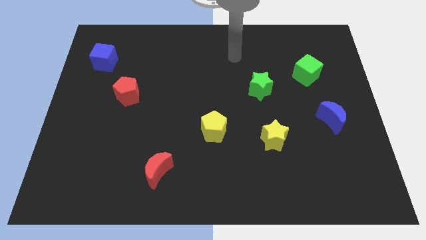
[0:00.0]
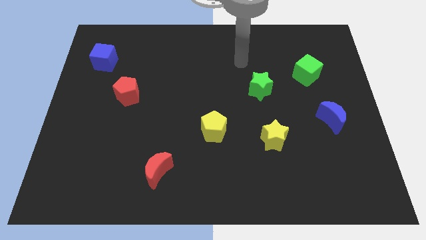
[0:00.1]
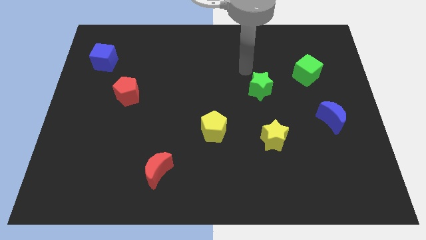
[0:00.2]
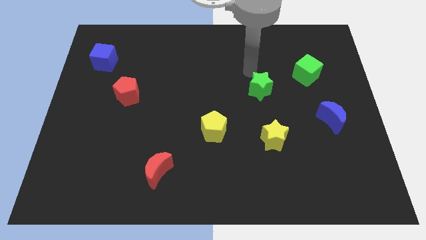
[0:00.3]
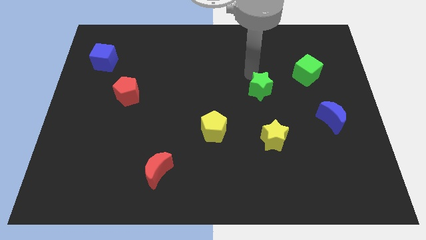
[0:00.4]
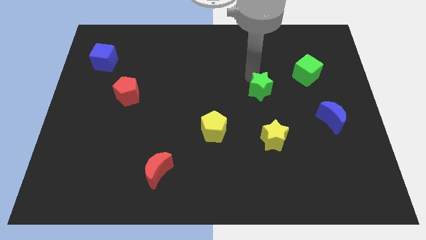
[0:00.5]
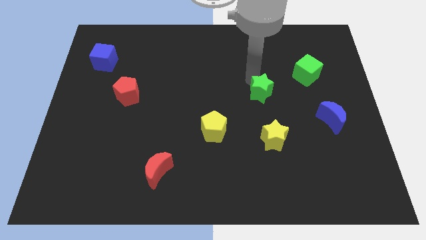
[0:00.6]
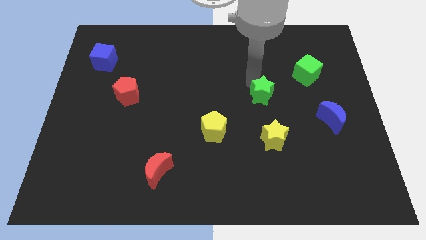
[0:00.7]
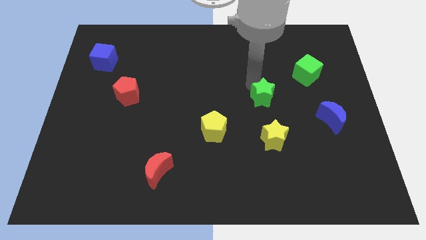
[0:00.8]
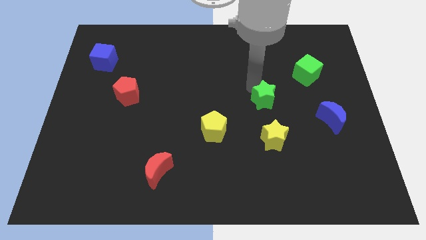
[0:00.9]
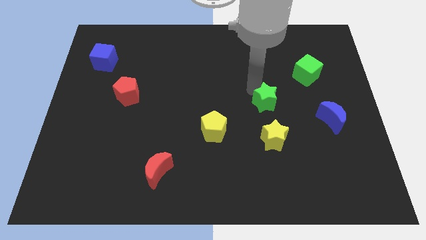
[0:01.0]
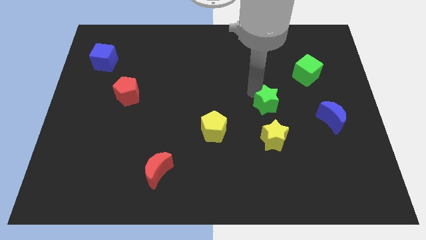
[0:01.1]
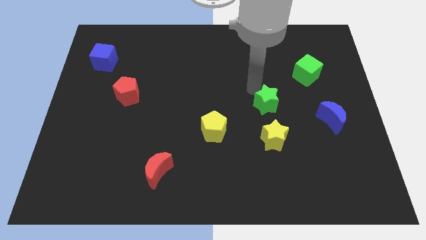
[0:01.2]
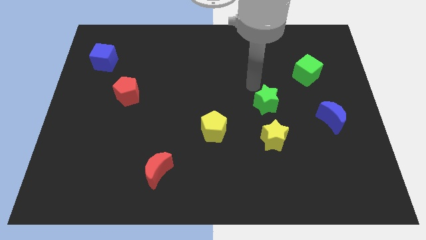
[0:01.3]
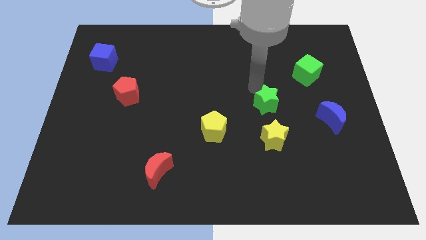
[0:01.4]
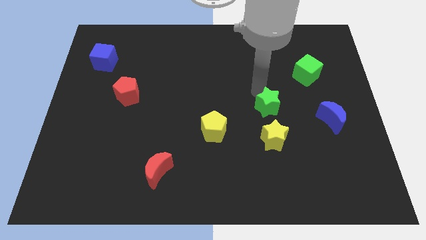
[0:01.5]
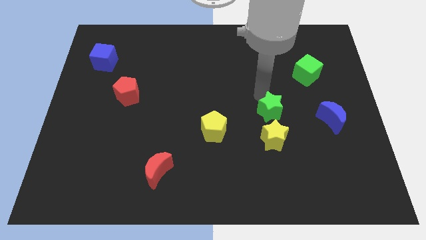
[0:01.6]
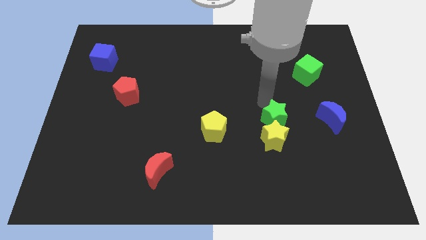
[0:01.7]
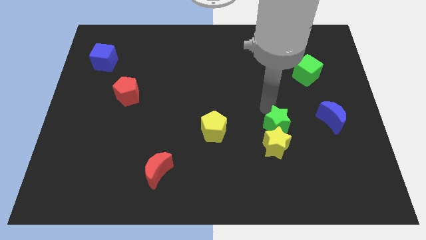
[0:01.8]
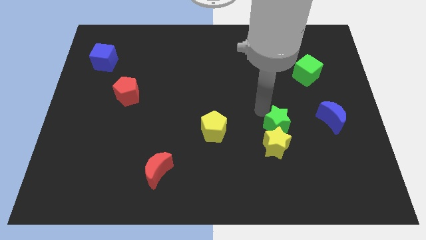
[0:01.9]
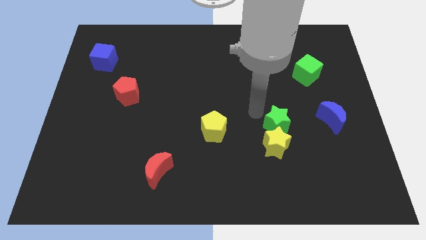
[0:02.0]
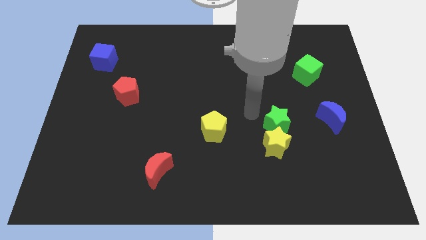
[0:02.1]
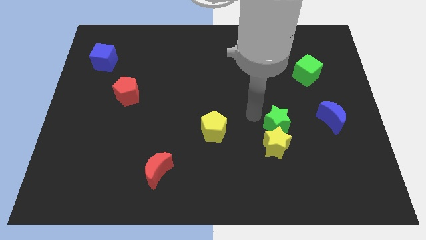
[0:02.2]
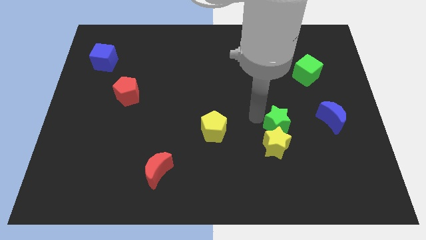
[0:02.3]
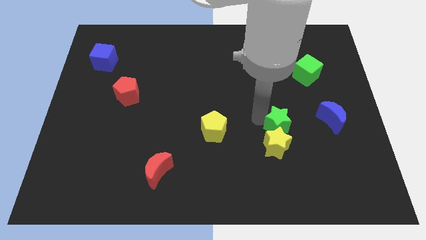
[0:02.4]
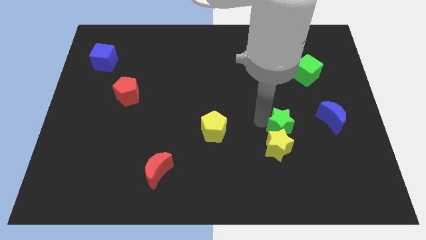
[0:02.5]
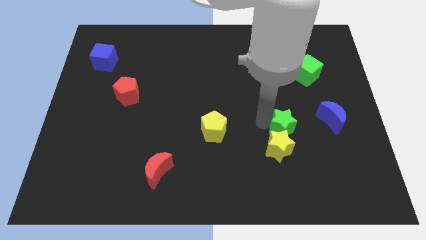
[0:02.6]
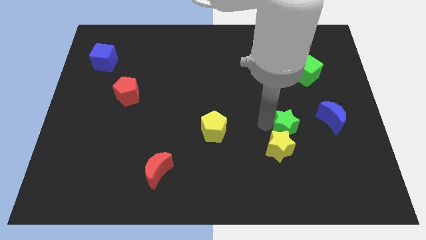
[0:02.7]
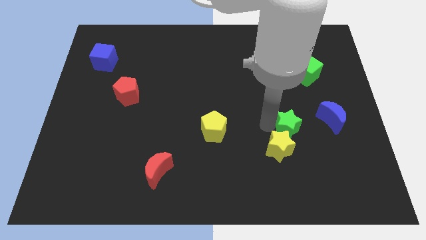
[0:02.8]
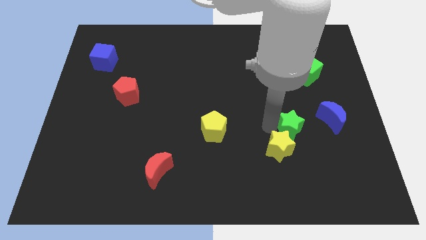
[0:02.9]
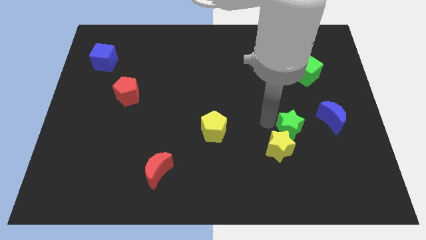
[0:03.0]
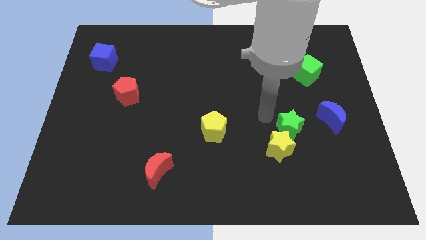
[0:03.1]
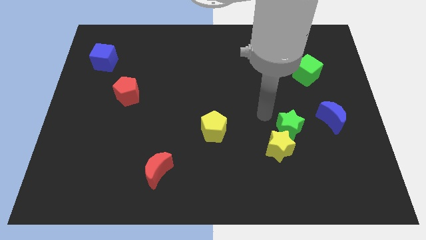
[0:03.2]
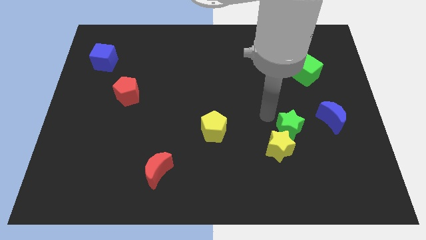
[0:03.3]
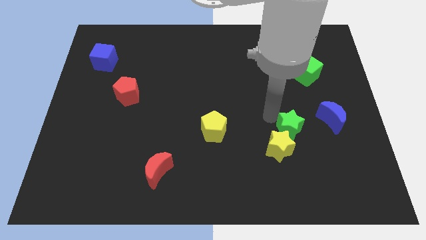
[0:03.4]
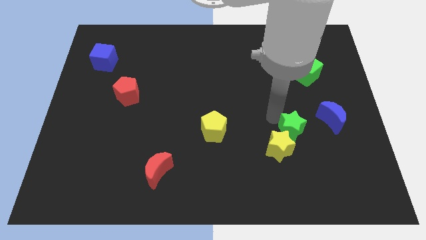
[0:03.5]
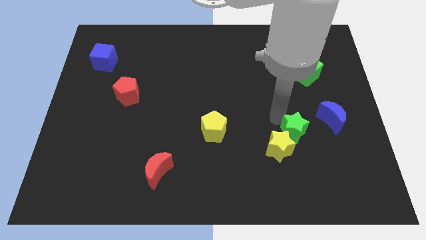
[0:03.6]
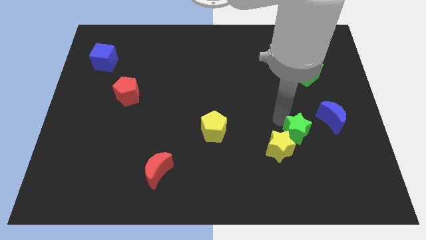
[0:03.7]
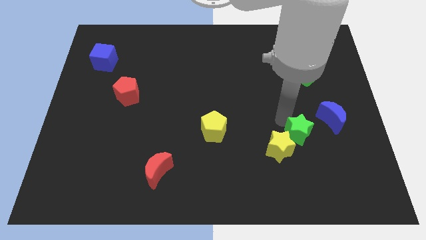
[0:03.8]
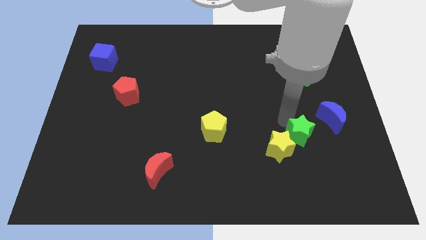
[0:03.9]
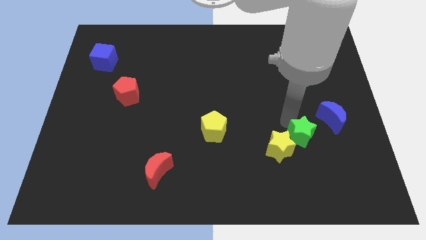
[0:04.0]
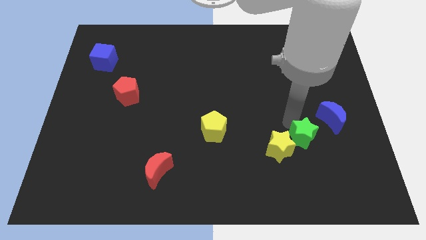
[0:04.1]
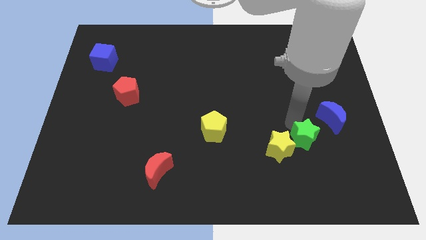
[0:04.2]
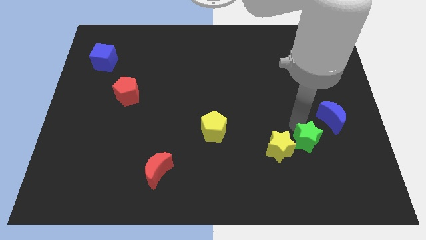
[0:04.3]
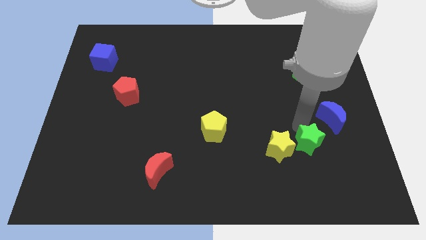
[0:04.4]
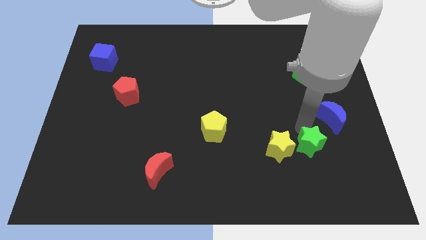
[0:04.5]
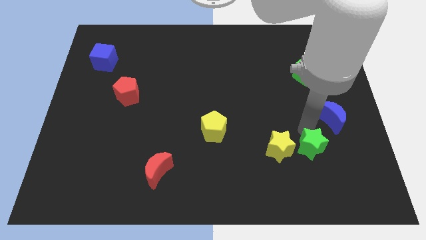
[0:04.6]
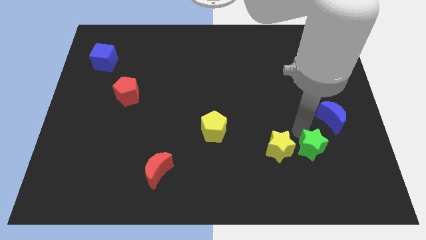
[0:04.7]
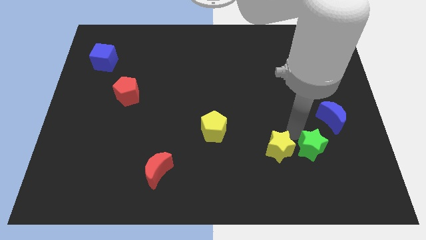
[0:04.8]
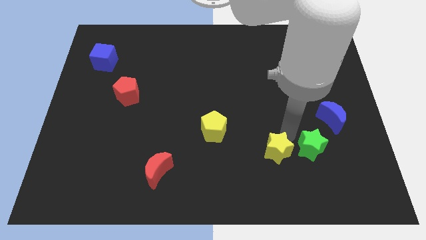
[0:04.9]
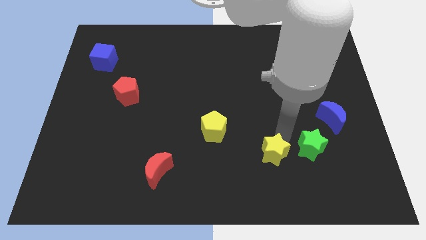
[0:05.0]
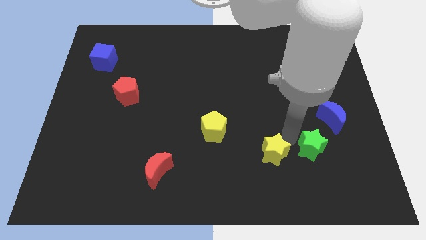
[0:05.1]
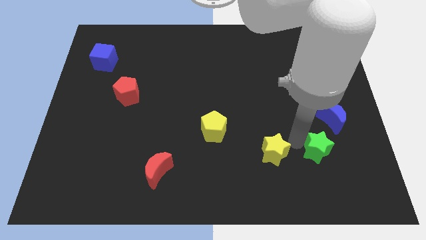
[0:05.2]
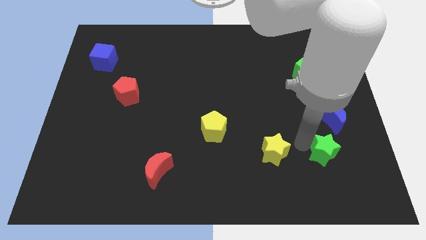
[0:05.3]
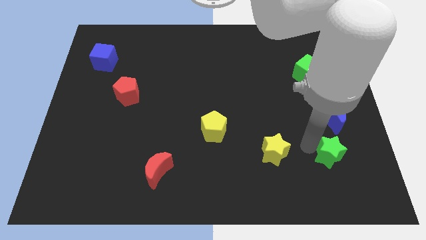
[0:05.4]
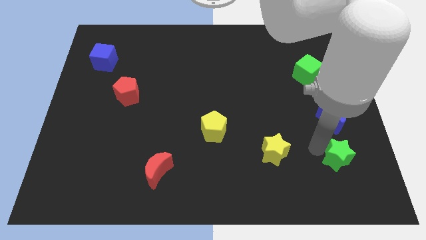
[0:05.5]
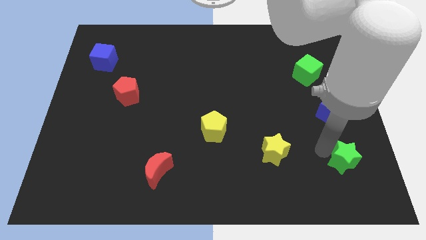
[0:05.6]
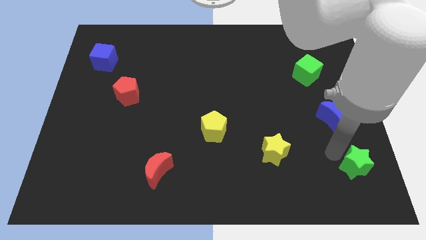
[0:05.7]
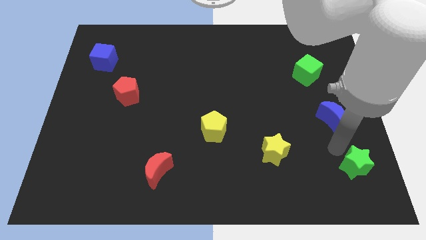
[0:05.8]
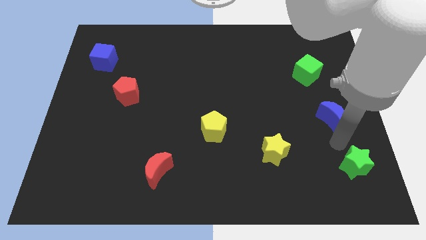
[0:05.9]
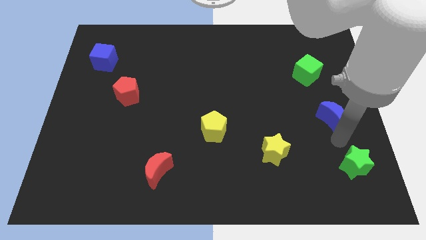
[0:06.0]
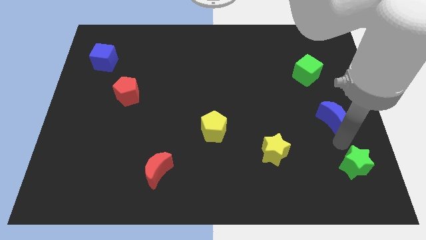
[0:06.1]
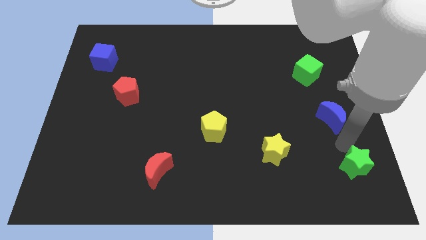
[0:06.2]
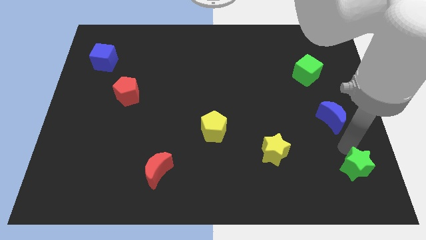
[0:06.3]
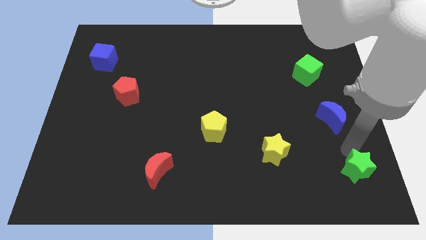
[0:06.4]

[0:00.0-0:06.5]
move the green star to the bottom right of the board

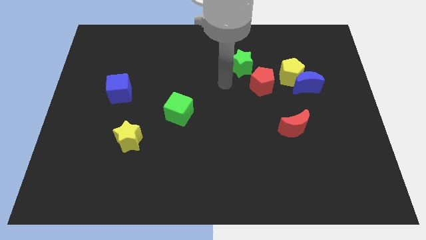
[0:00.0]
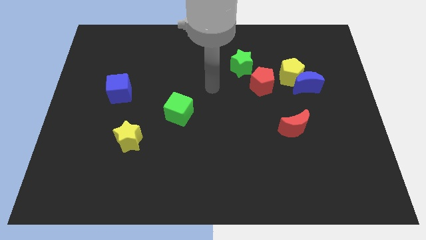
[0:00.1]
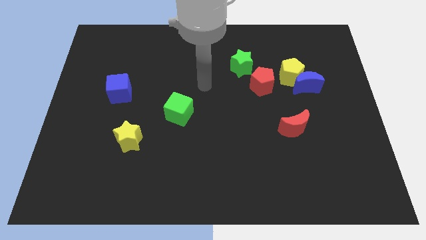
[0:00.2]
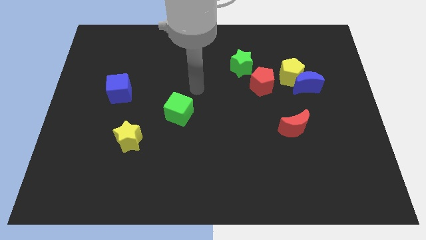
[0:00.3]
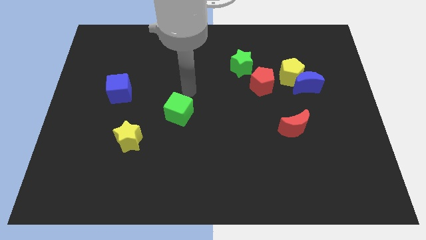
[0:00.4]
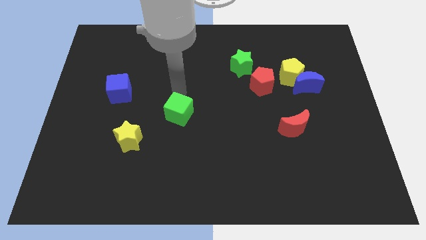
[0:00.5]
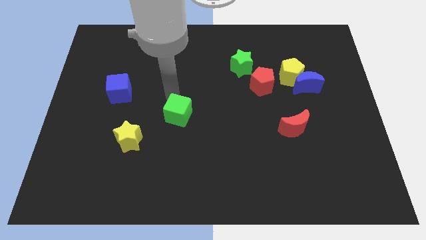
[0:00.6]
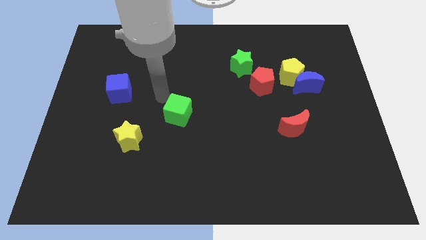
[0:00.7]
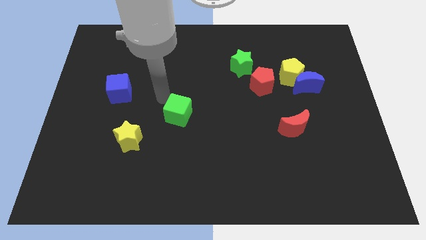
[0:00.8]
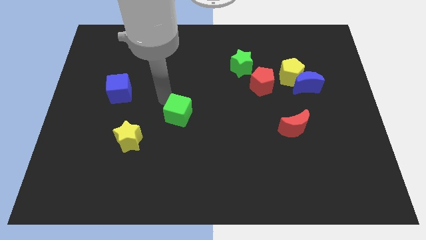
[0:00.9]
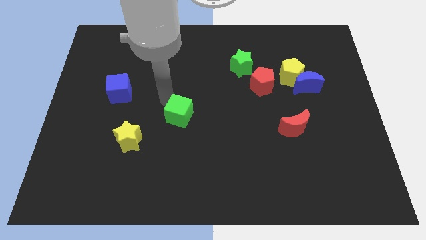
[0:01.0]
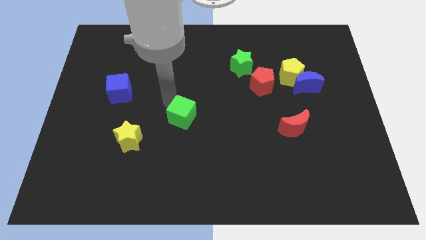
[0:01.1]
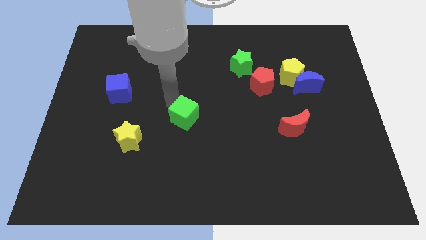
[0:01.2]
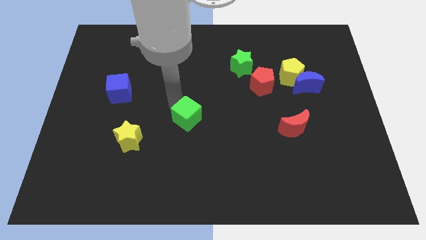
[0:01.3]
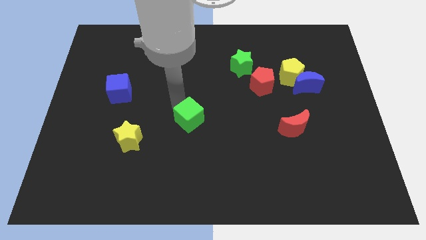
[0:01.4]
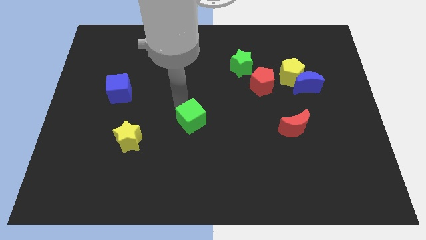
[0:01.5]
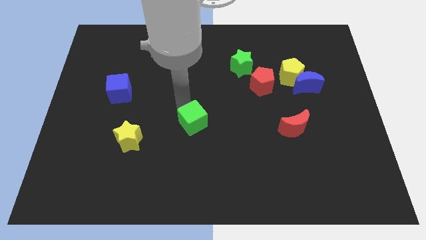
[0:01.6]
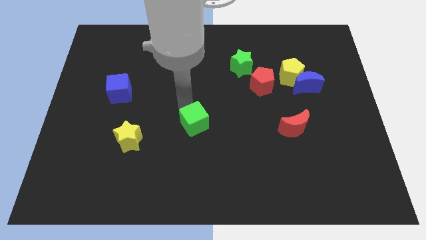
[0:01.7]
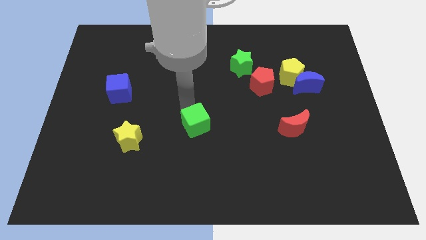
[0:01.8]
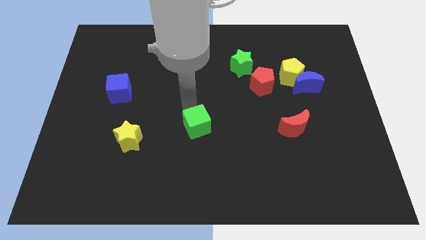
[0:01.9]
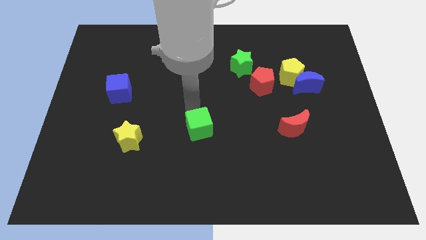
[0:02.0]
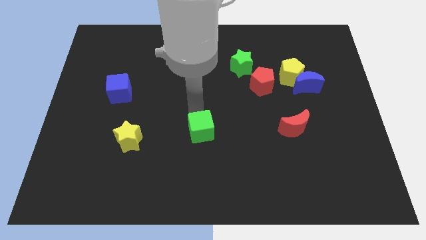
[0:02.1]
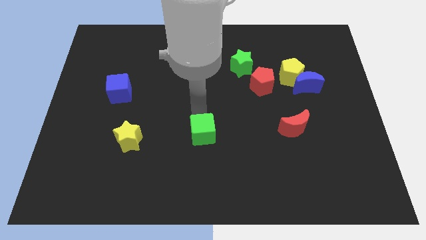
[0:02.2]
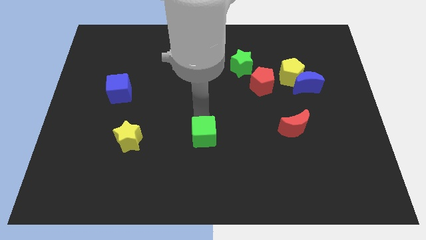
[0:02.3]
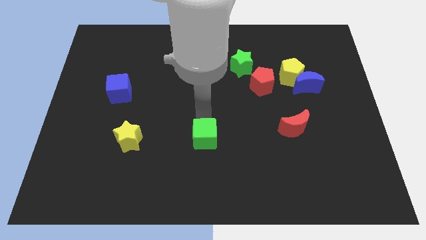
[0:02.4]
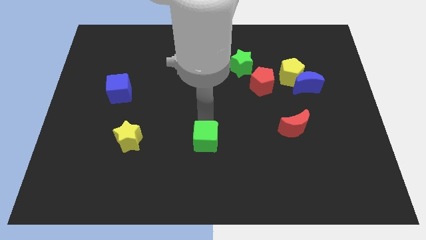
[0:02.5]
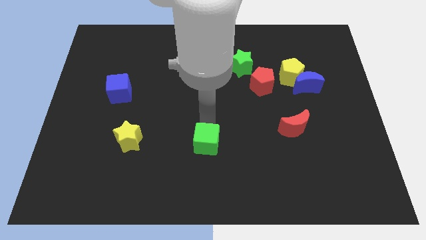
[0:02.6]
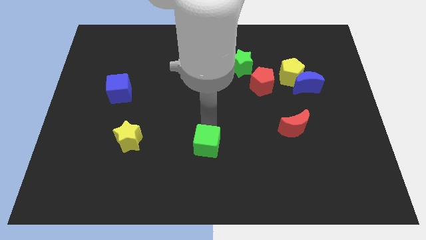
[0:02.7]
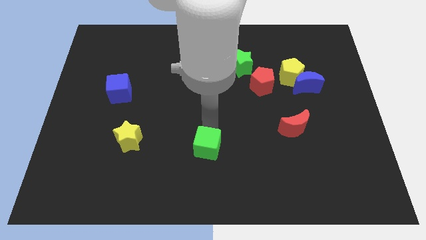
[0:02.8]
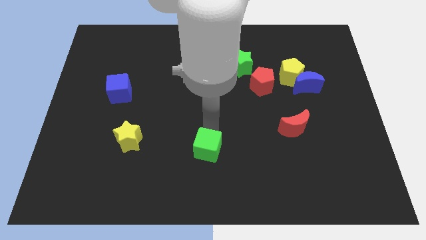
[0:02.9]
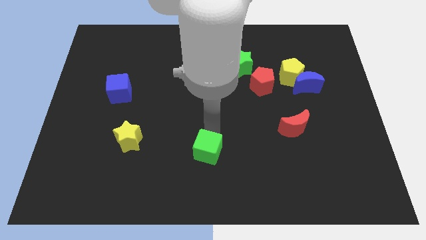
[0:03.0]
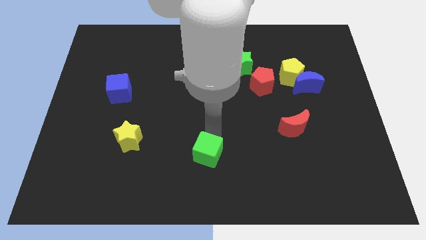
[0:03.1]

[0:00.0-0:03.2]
move the green cube to the bottom
